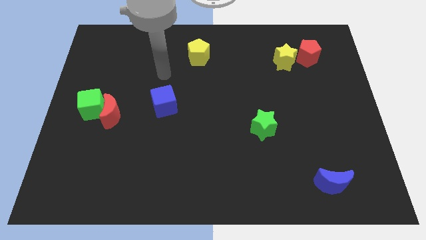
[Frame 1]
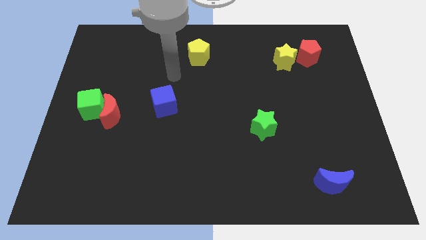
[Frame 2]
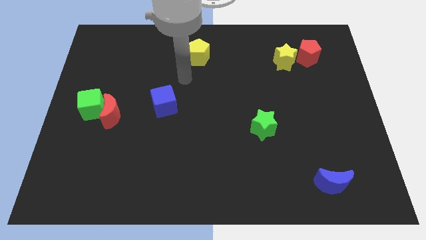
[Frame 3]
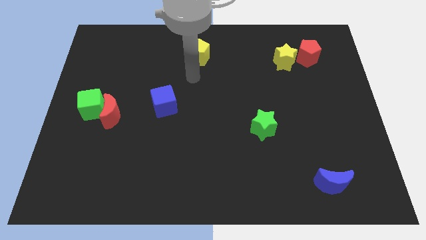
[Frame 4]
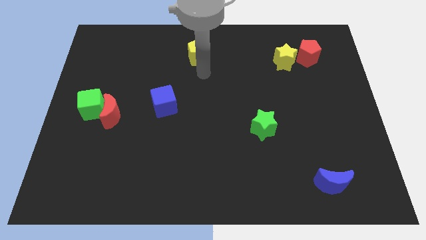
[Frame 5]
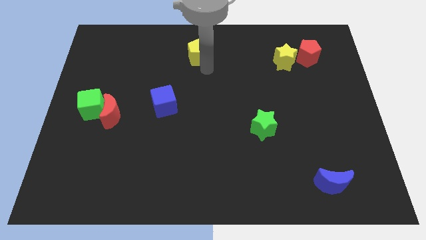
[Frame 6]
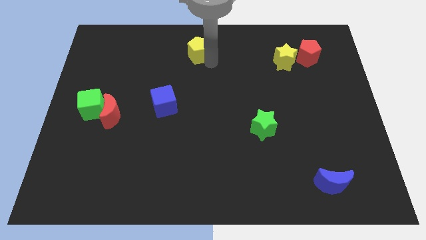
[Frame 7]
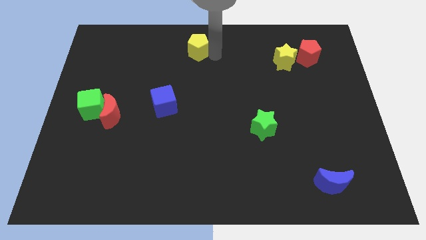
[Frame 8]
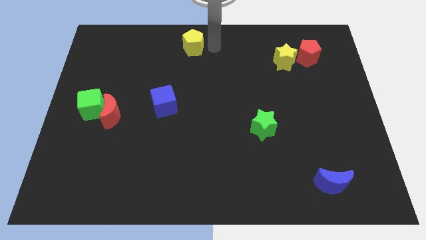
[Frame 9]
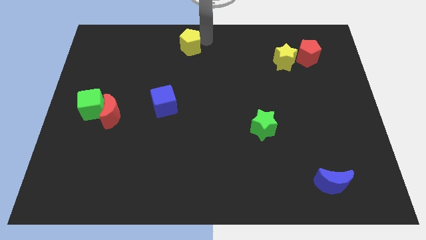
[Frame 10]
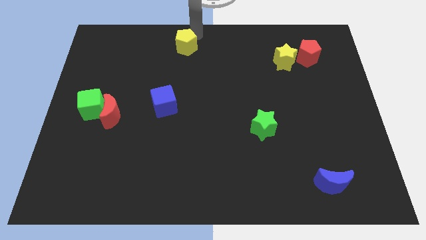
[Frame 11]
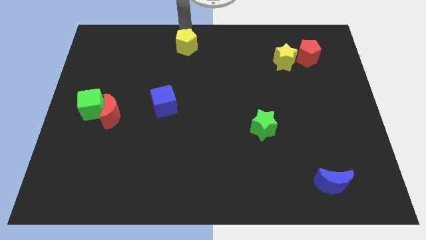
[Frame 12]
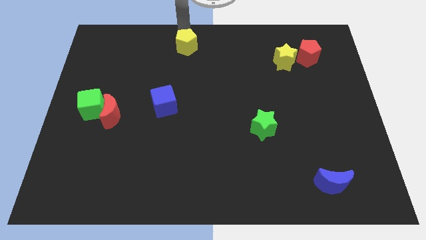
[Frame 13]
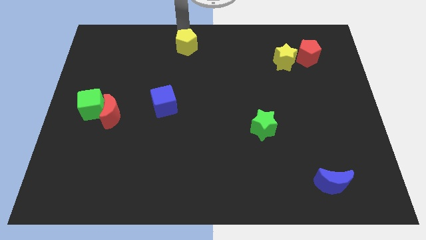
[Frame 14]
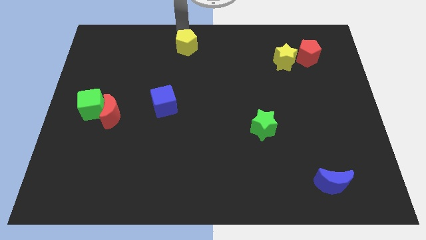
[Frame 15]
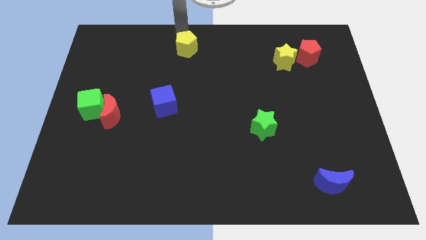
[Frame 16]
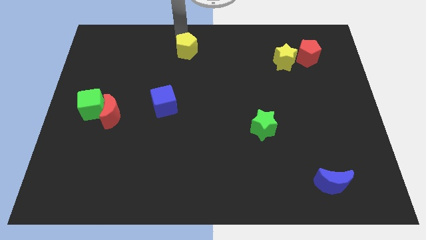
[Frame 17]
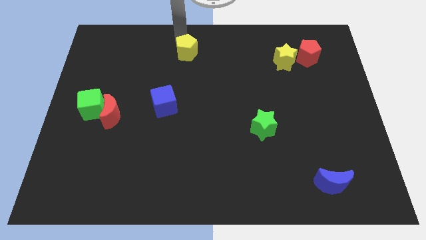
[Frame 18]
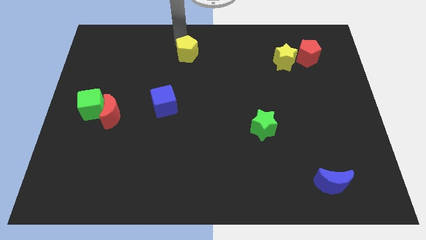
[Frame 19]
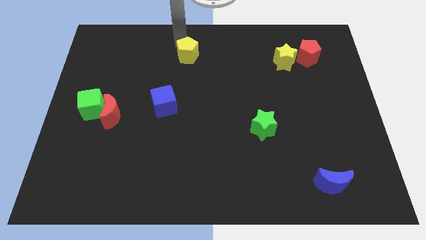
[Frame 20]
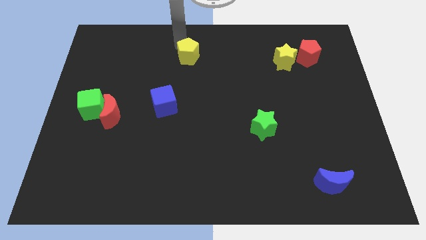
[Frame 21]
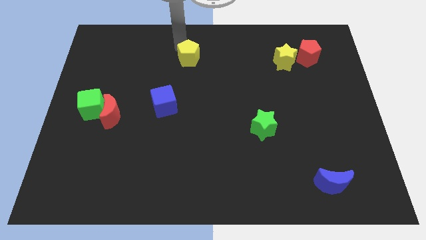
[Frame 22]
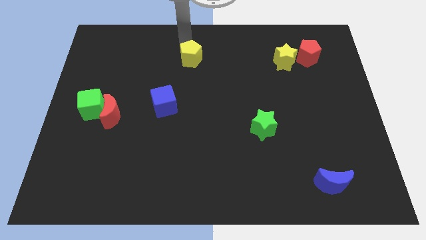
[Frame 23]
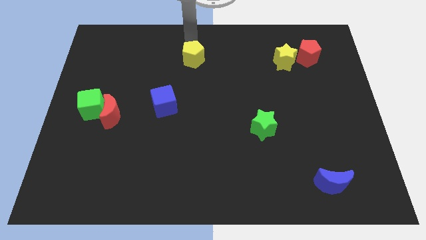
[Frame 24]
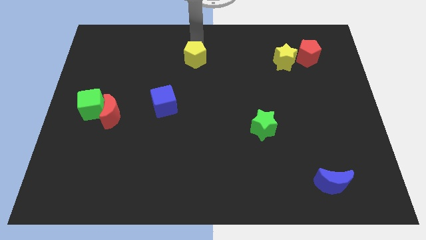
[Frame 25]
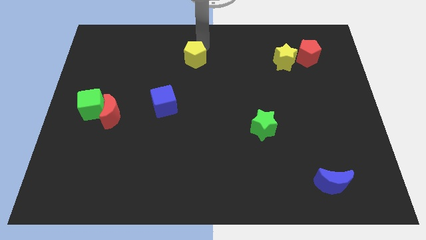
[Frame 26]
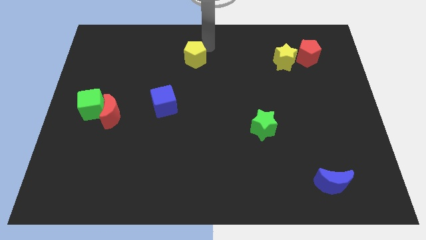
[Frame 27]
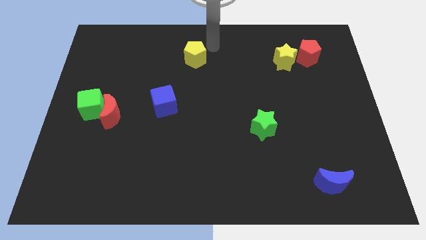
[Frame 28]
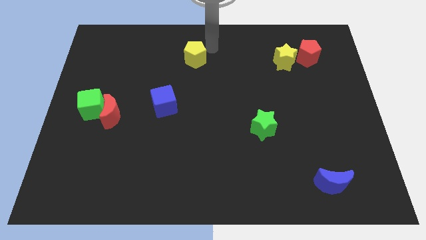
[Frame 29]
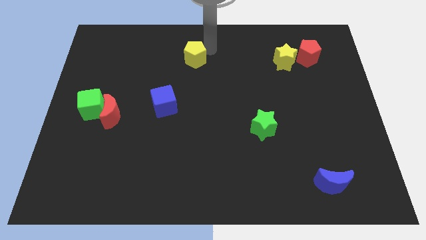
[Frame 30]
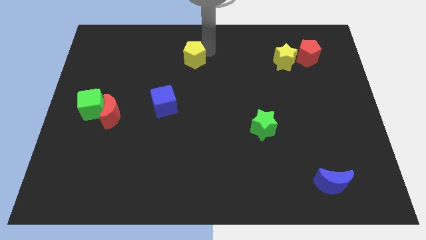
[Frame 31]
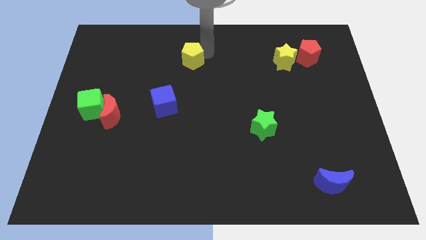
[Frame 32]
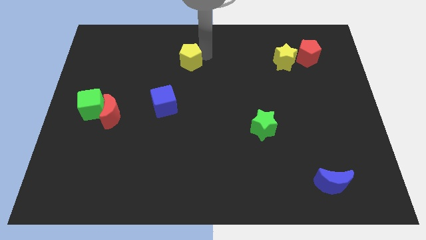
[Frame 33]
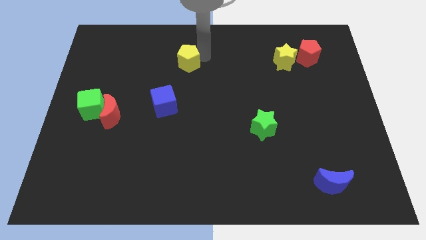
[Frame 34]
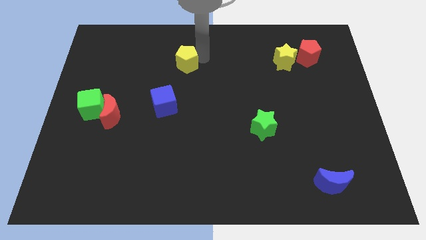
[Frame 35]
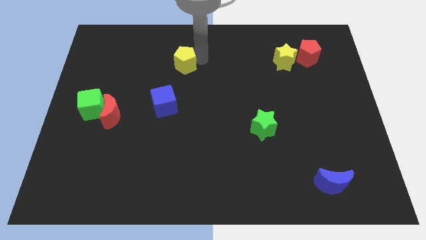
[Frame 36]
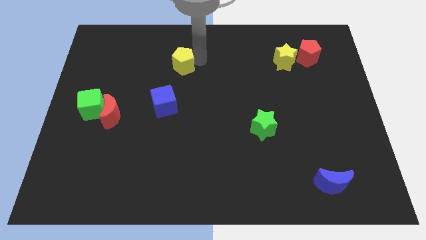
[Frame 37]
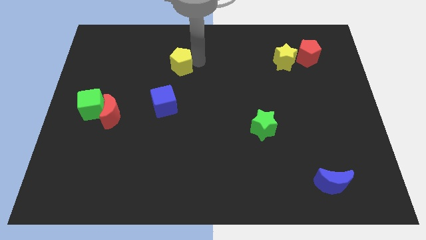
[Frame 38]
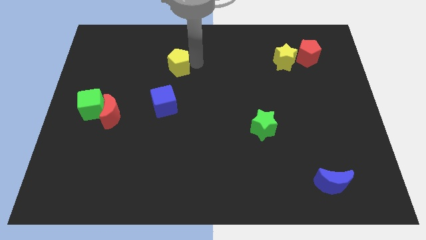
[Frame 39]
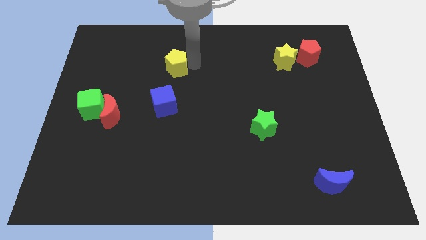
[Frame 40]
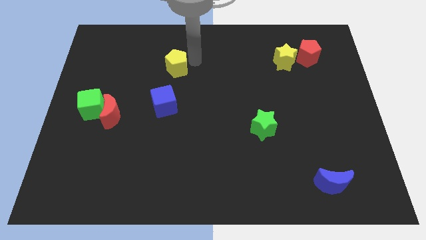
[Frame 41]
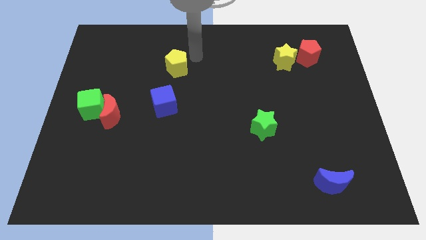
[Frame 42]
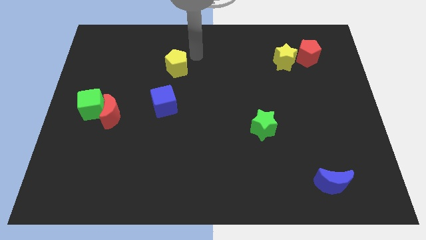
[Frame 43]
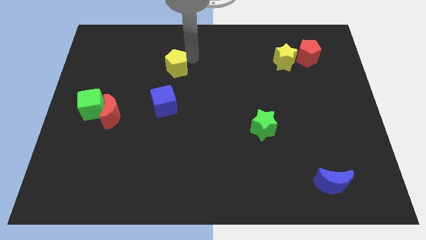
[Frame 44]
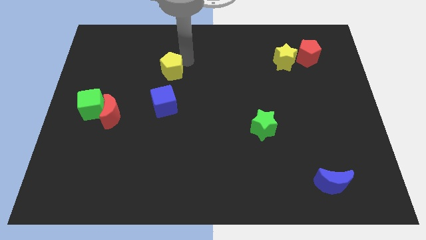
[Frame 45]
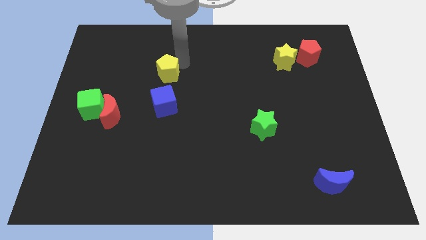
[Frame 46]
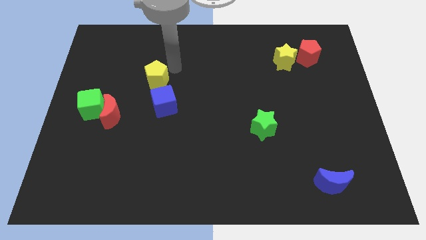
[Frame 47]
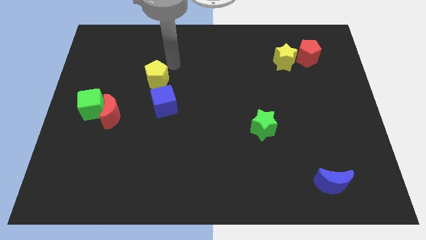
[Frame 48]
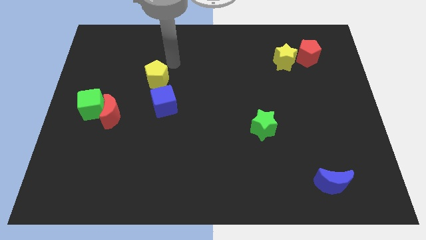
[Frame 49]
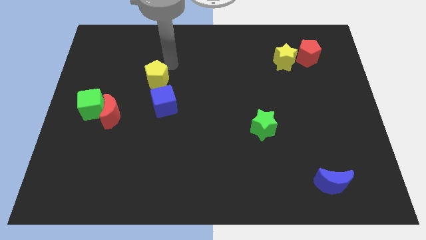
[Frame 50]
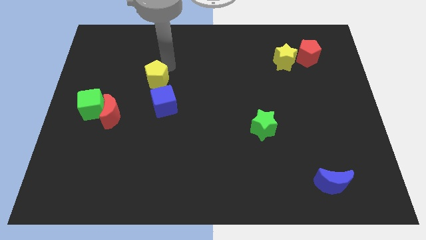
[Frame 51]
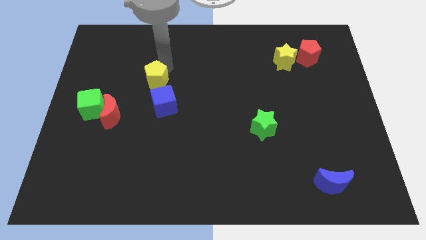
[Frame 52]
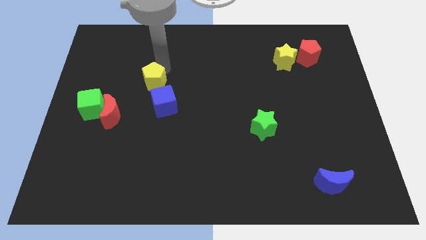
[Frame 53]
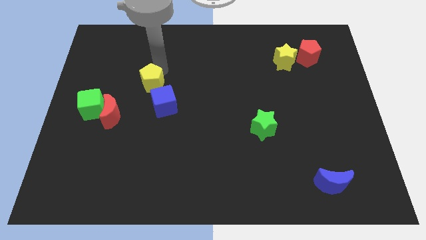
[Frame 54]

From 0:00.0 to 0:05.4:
slide the yellow pentagon to the top right side of the red moon

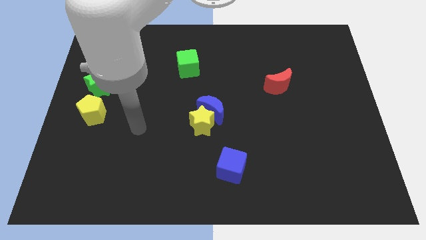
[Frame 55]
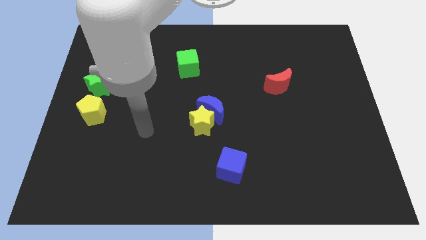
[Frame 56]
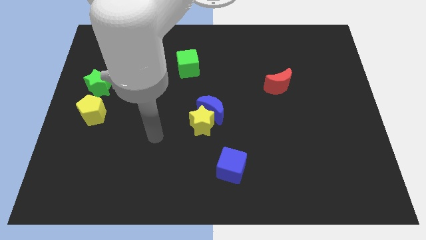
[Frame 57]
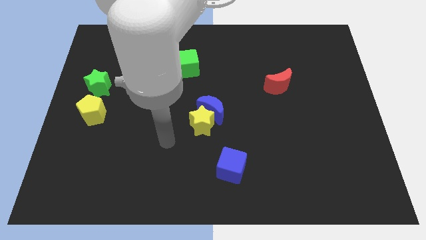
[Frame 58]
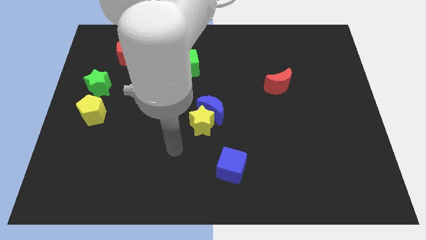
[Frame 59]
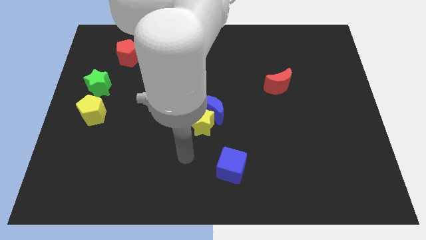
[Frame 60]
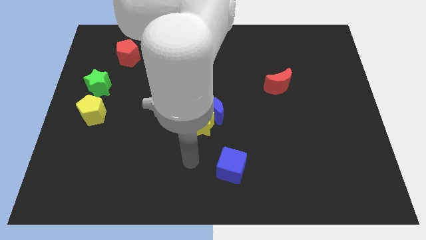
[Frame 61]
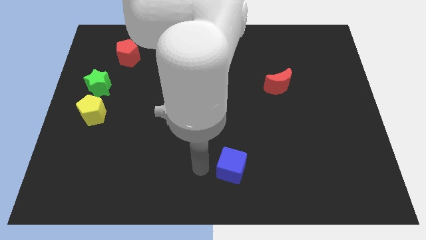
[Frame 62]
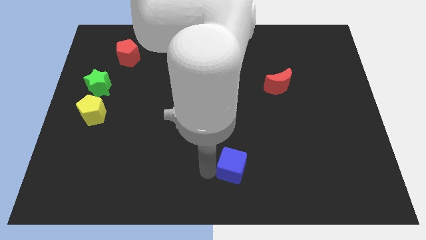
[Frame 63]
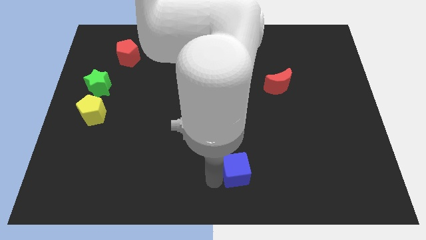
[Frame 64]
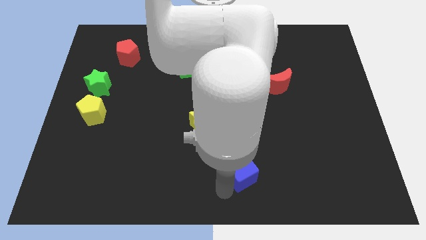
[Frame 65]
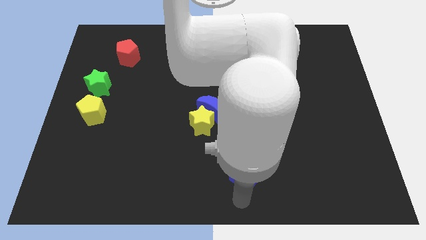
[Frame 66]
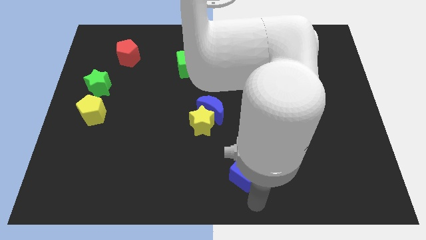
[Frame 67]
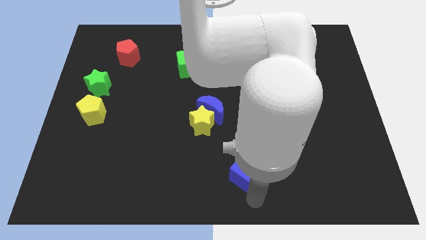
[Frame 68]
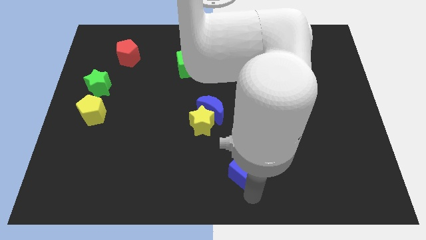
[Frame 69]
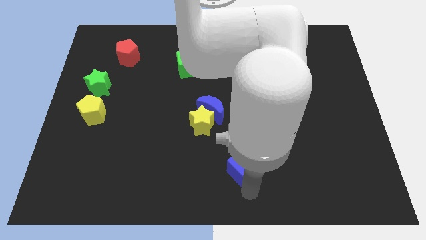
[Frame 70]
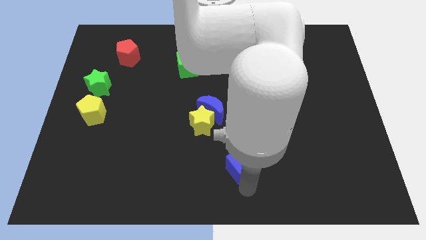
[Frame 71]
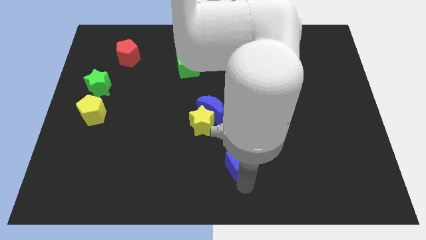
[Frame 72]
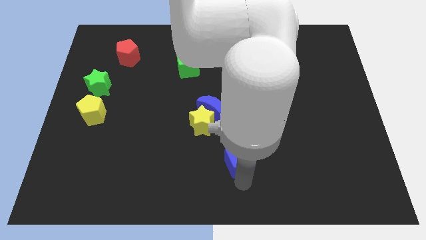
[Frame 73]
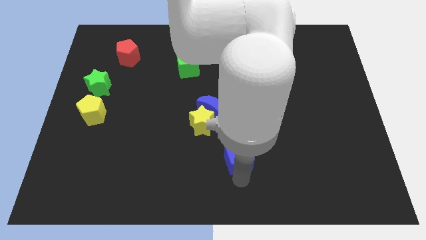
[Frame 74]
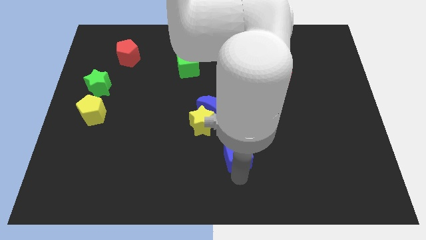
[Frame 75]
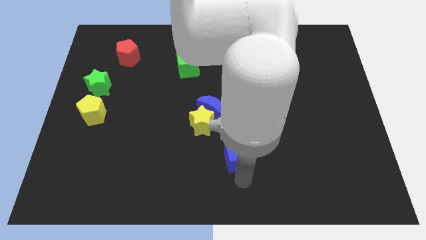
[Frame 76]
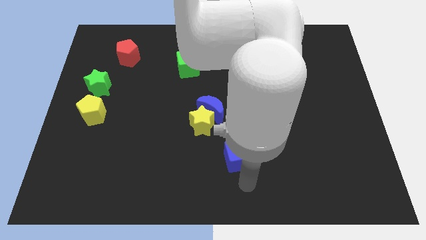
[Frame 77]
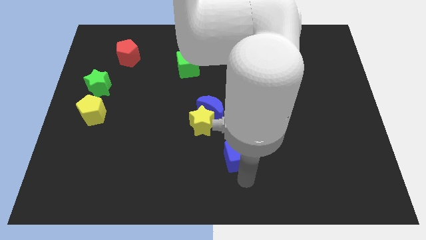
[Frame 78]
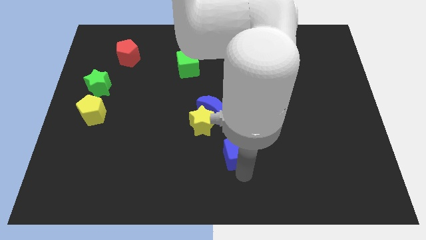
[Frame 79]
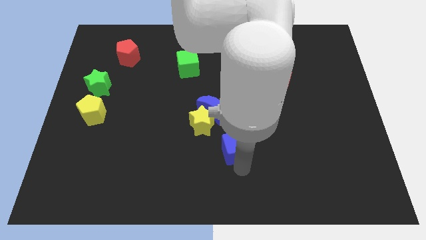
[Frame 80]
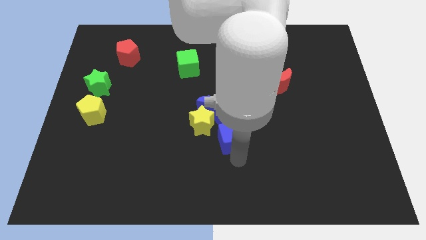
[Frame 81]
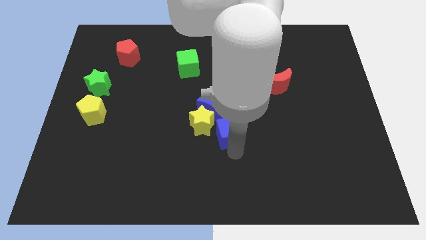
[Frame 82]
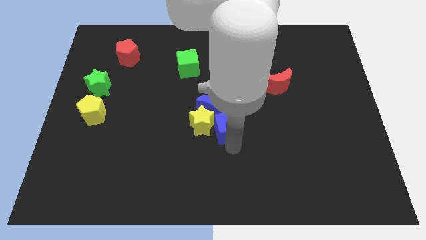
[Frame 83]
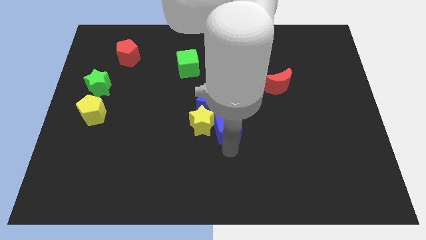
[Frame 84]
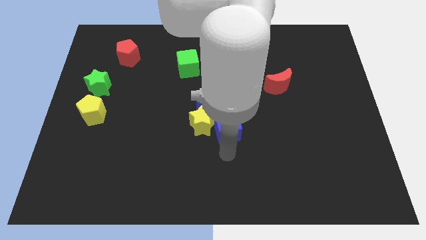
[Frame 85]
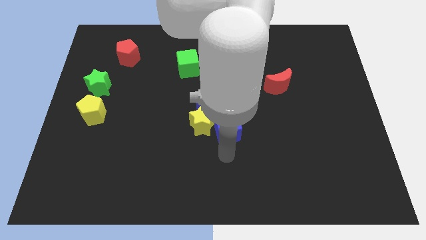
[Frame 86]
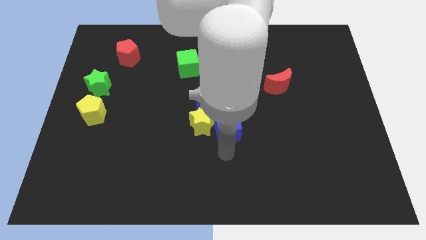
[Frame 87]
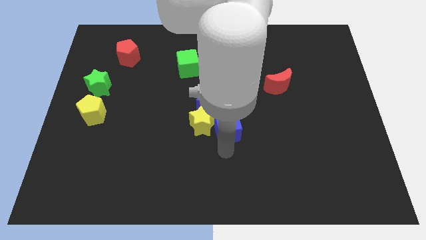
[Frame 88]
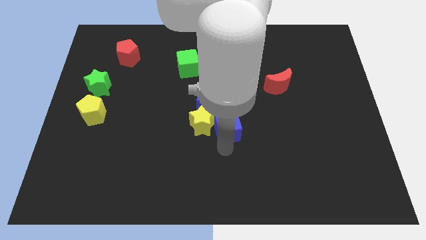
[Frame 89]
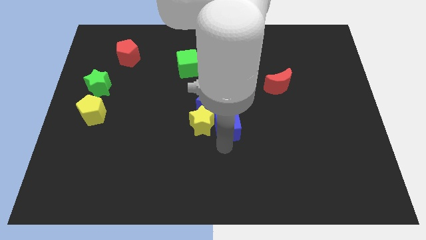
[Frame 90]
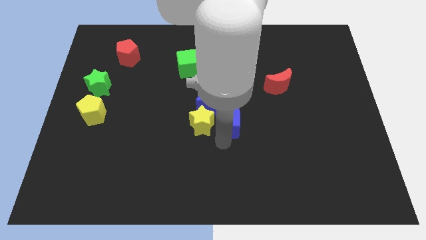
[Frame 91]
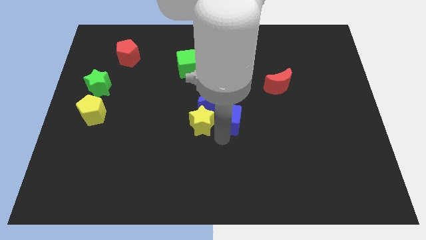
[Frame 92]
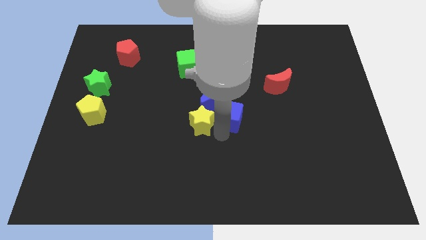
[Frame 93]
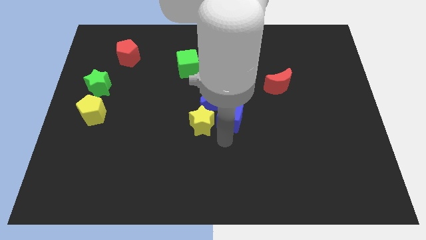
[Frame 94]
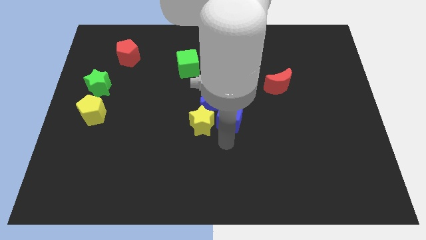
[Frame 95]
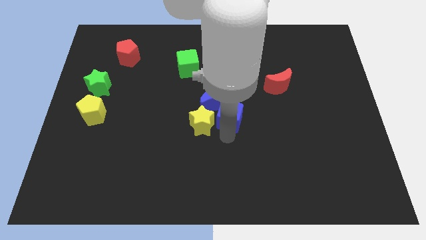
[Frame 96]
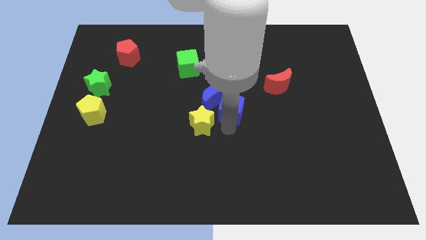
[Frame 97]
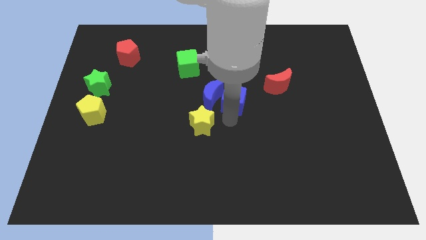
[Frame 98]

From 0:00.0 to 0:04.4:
slide the blue cube to the top right side of the blue moon
